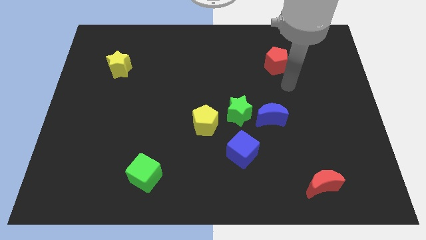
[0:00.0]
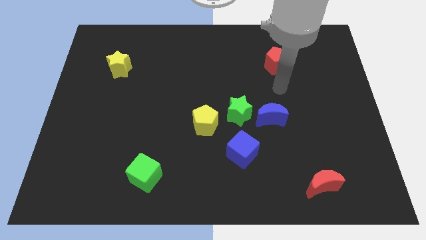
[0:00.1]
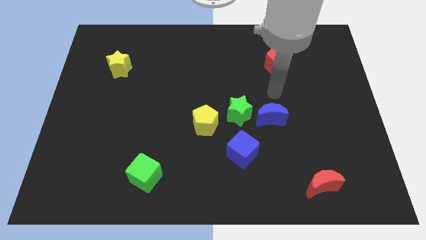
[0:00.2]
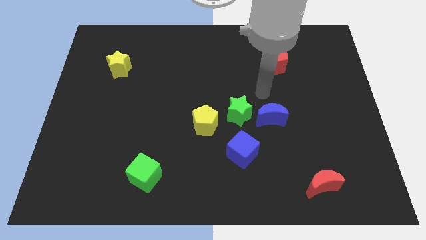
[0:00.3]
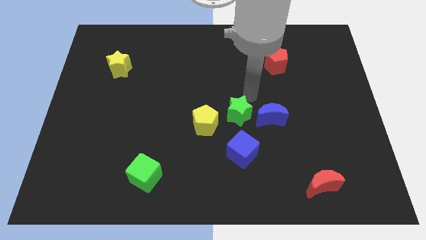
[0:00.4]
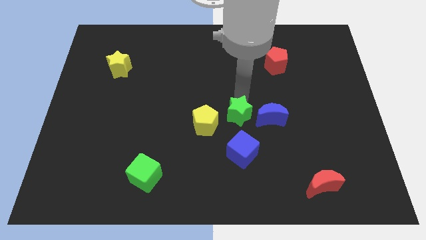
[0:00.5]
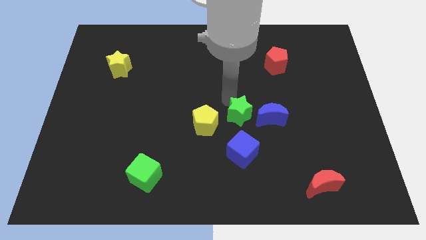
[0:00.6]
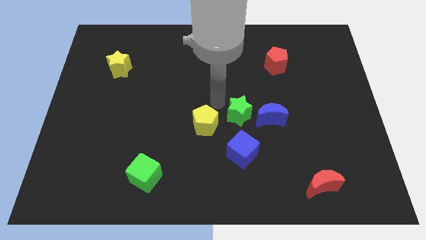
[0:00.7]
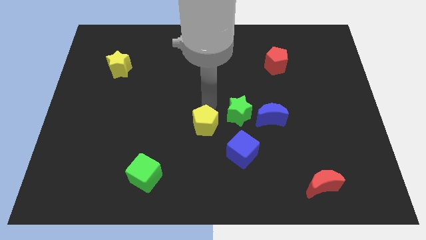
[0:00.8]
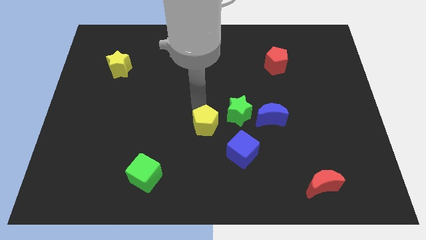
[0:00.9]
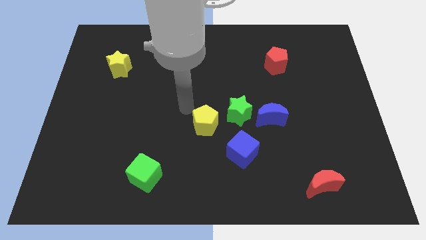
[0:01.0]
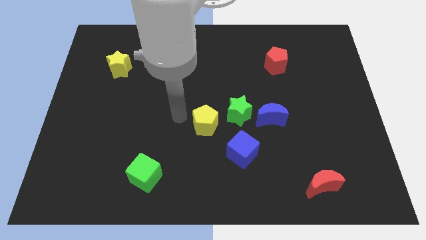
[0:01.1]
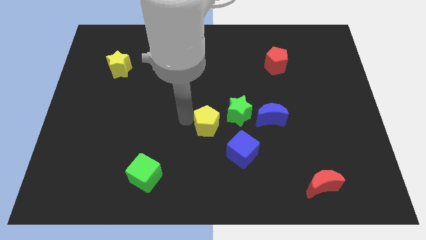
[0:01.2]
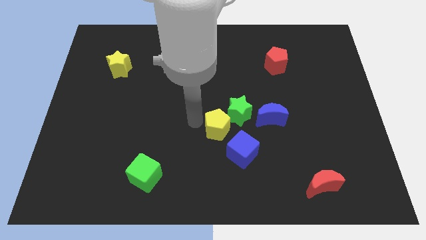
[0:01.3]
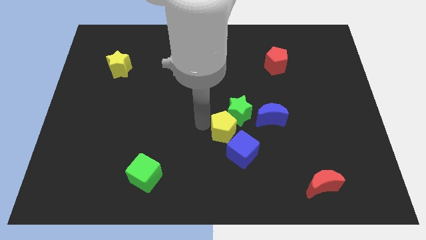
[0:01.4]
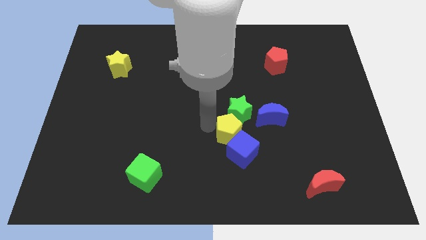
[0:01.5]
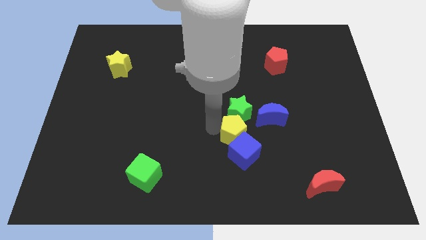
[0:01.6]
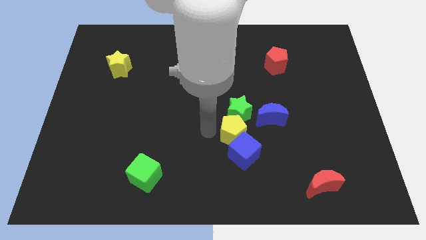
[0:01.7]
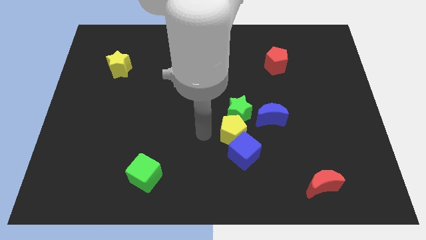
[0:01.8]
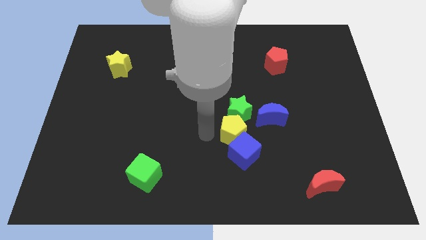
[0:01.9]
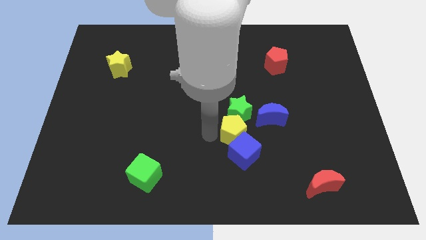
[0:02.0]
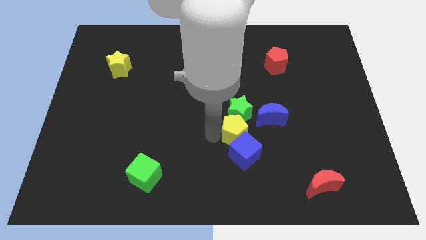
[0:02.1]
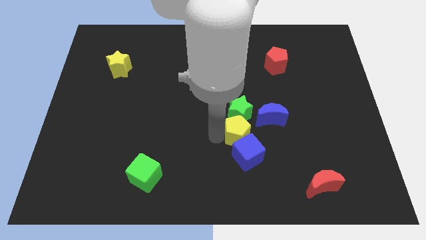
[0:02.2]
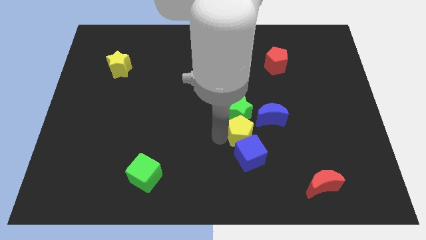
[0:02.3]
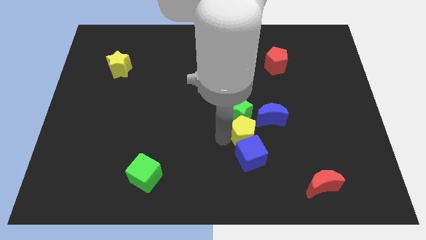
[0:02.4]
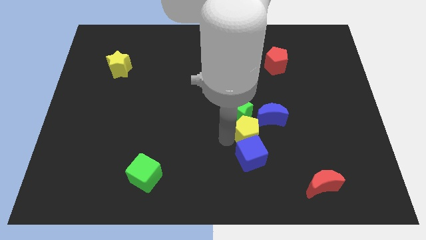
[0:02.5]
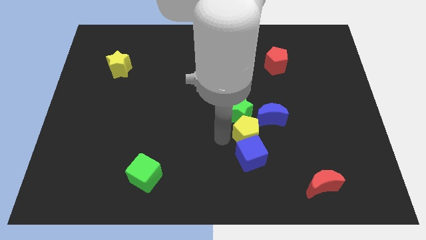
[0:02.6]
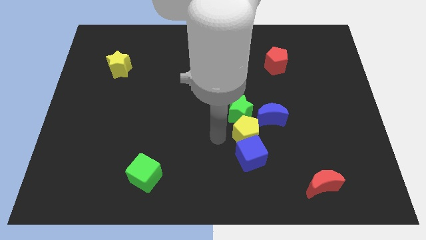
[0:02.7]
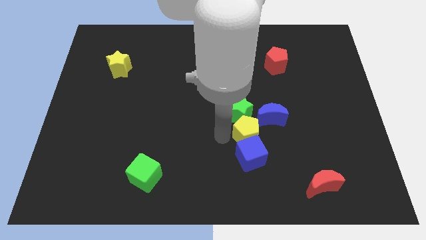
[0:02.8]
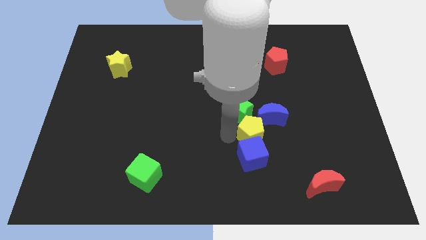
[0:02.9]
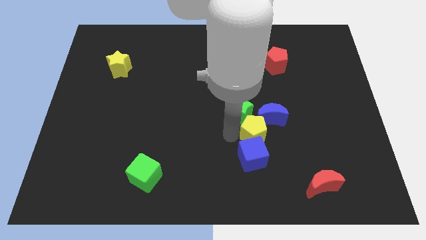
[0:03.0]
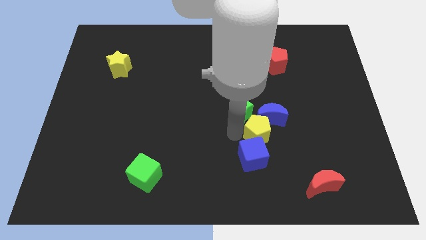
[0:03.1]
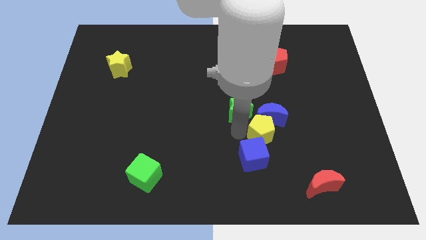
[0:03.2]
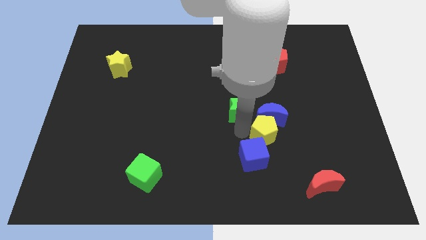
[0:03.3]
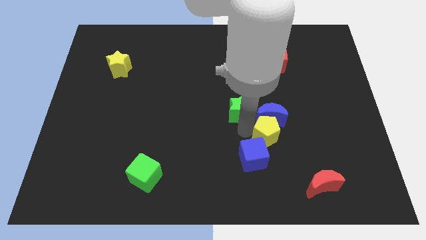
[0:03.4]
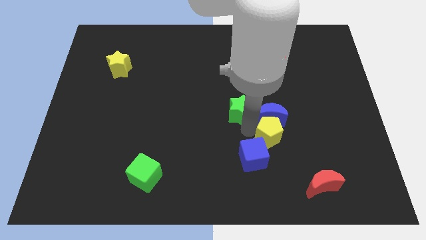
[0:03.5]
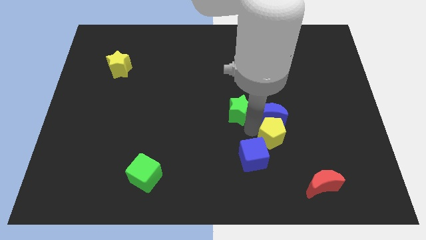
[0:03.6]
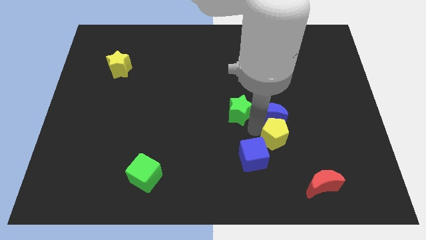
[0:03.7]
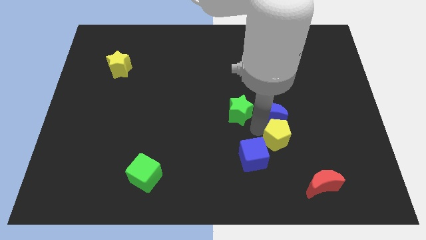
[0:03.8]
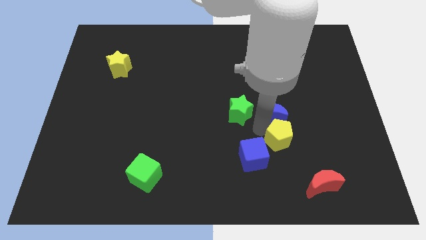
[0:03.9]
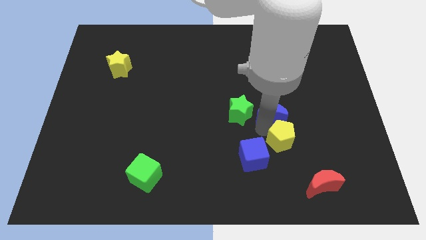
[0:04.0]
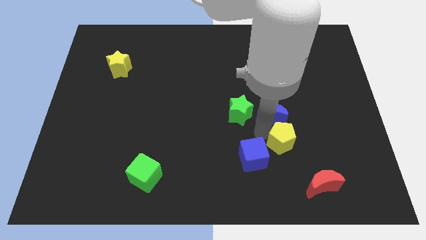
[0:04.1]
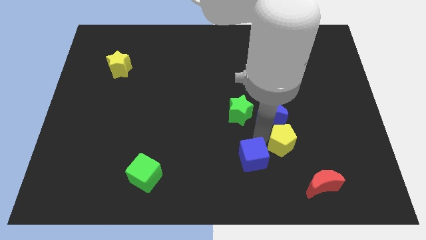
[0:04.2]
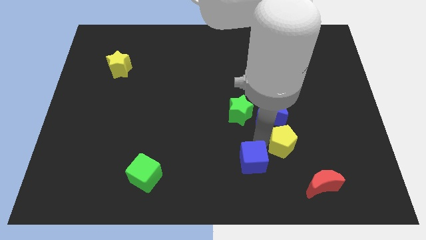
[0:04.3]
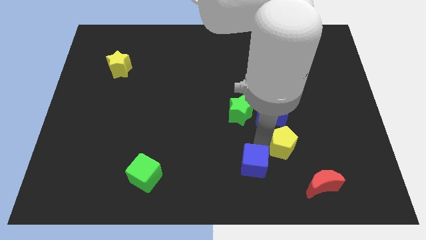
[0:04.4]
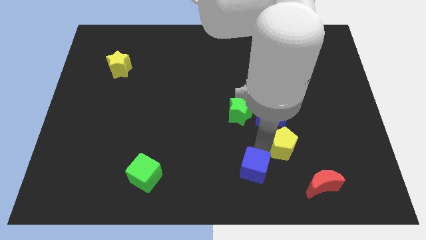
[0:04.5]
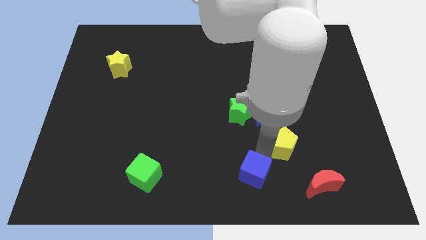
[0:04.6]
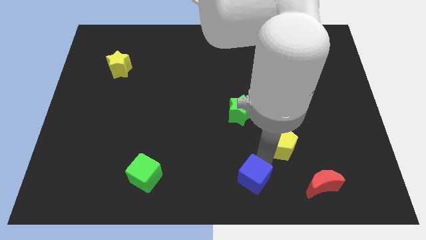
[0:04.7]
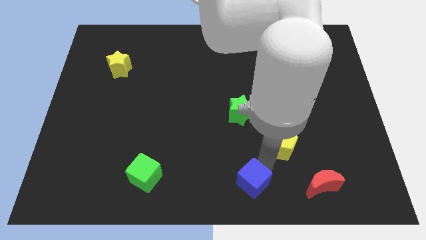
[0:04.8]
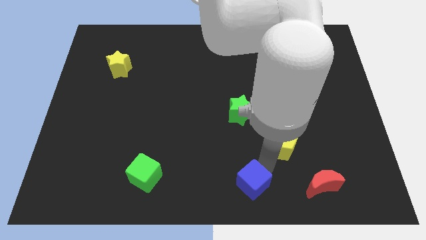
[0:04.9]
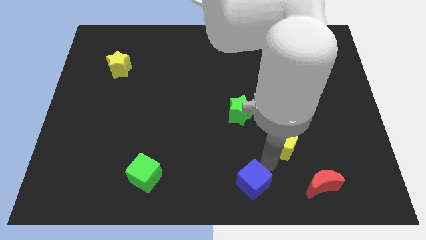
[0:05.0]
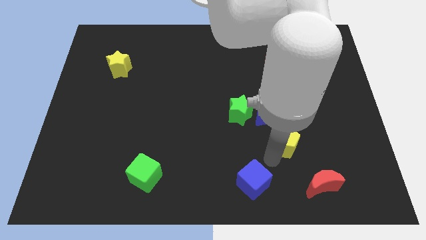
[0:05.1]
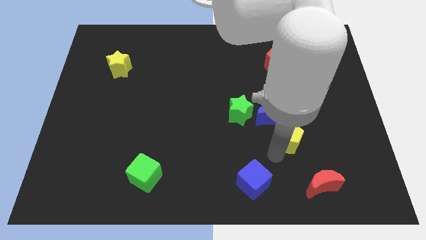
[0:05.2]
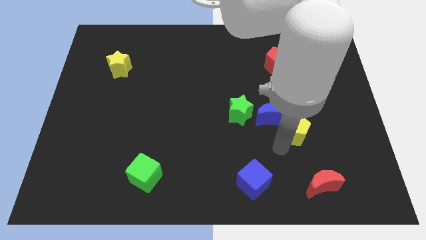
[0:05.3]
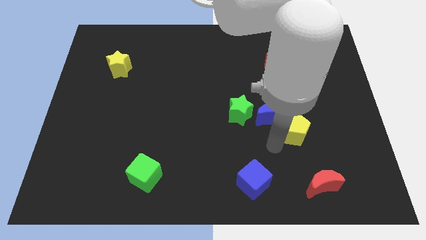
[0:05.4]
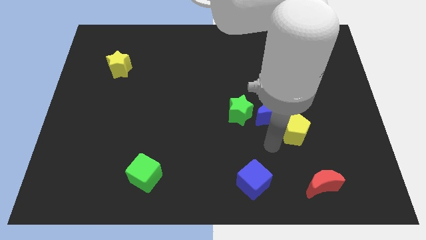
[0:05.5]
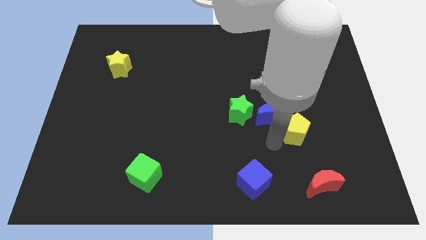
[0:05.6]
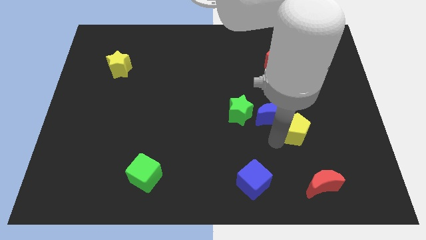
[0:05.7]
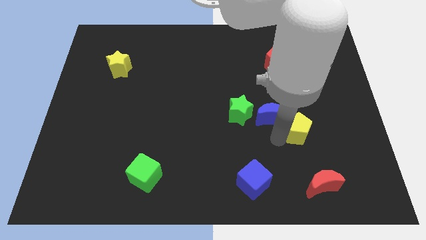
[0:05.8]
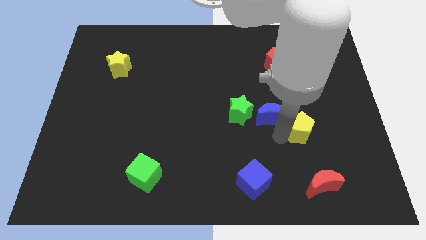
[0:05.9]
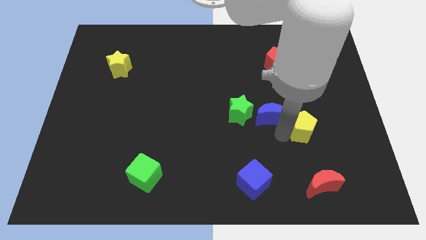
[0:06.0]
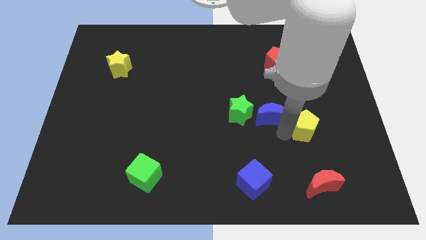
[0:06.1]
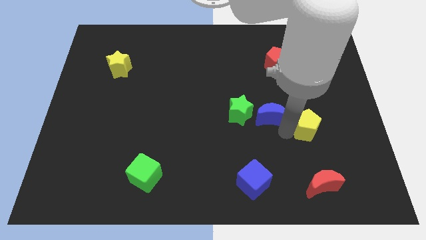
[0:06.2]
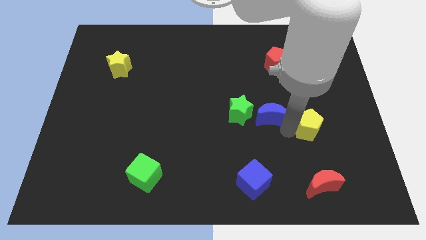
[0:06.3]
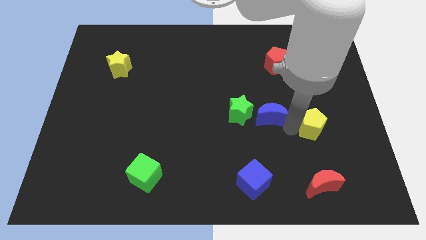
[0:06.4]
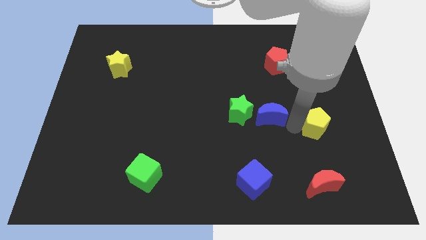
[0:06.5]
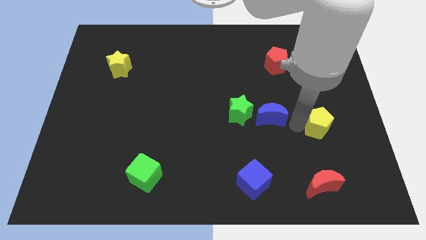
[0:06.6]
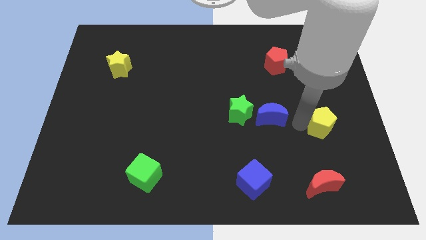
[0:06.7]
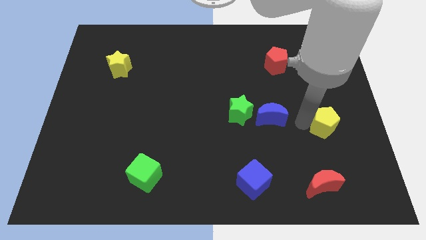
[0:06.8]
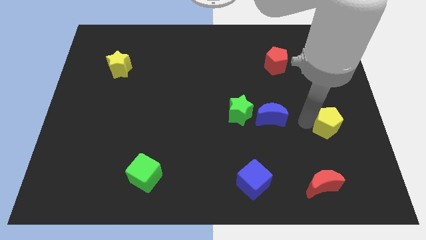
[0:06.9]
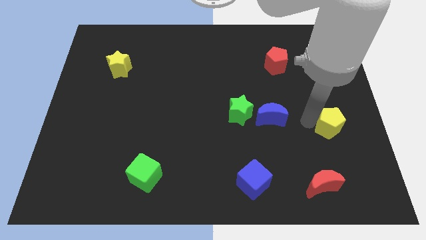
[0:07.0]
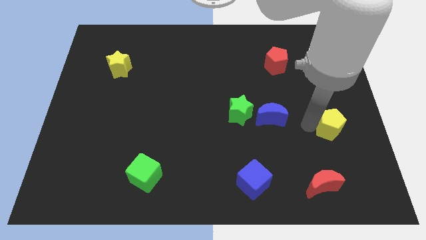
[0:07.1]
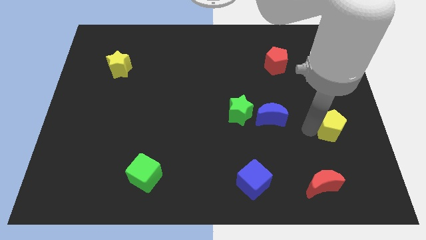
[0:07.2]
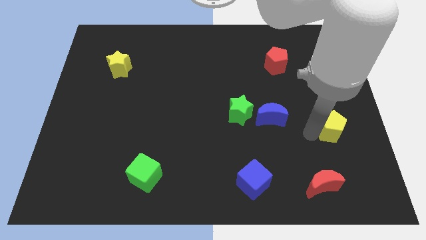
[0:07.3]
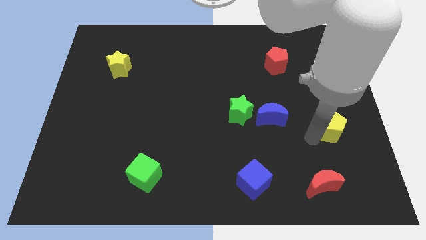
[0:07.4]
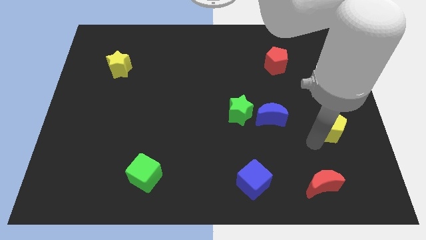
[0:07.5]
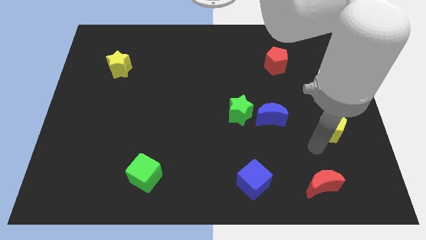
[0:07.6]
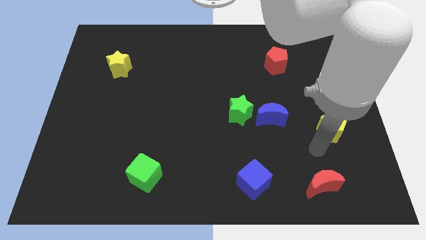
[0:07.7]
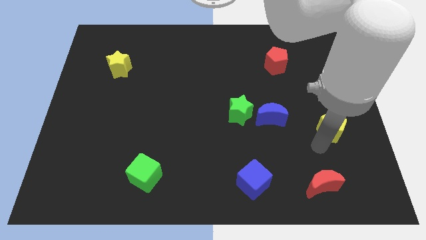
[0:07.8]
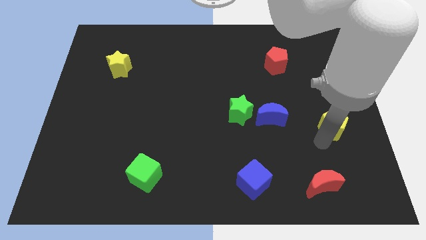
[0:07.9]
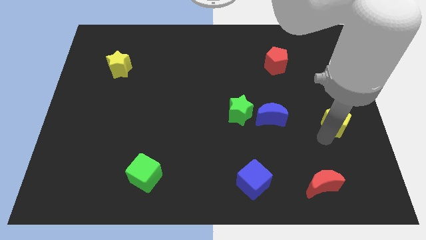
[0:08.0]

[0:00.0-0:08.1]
move the yellow pentagon to the right side

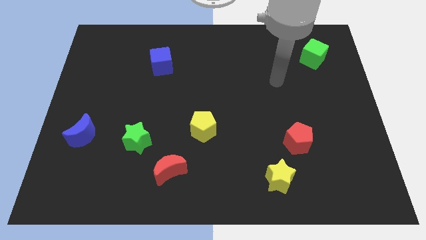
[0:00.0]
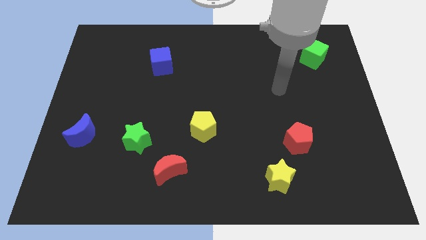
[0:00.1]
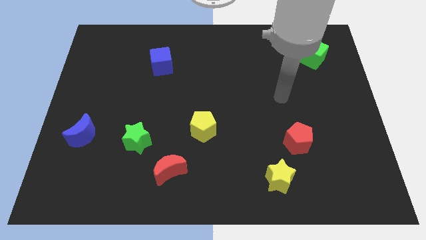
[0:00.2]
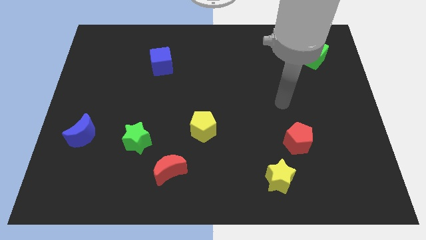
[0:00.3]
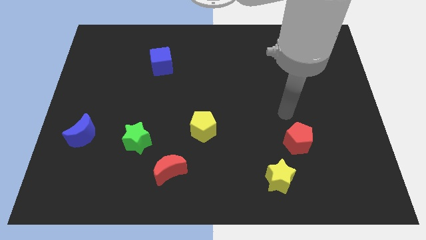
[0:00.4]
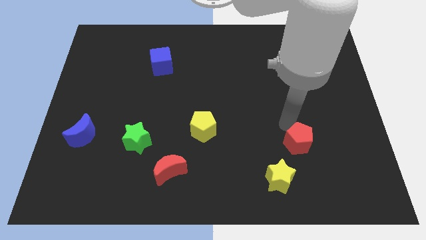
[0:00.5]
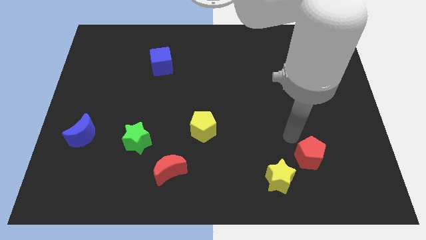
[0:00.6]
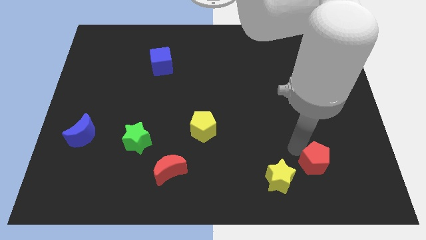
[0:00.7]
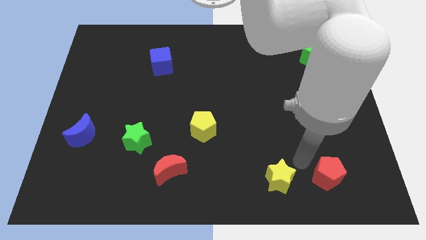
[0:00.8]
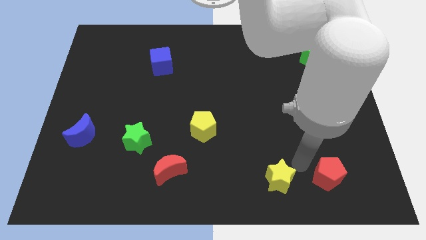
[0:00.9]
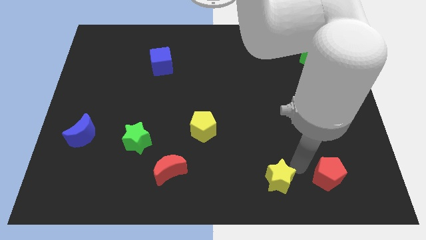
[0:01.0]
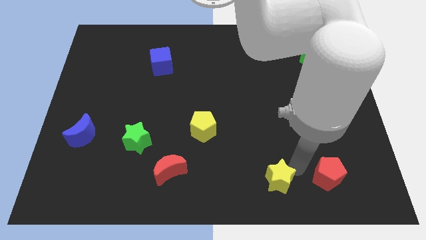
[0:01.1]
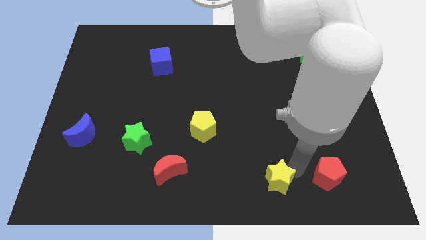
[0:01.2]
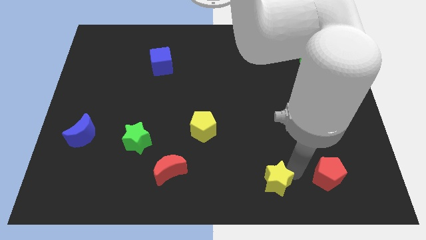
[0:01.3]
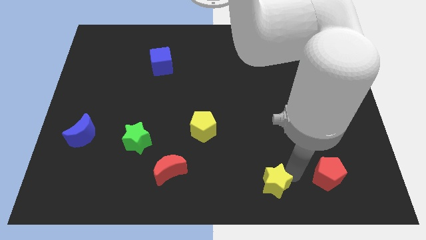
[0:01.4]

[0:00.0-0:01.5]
move the yellow star to the bottom
